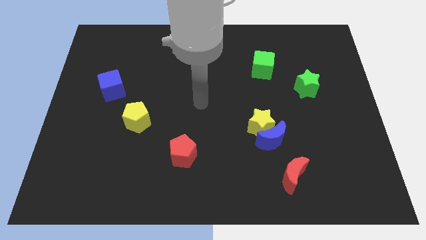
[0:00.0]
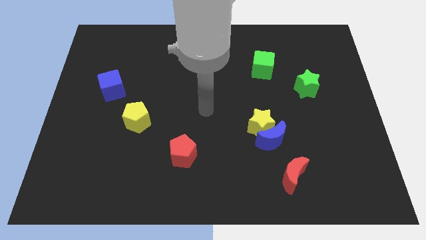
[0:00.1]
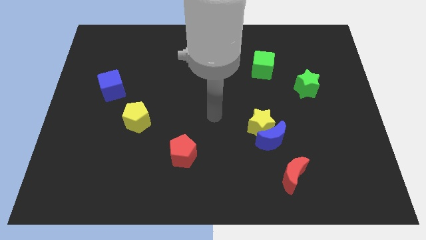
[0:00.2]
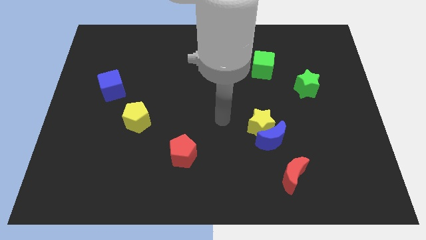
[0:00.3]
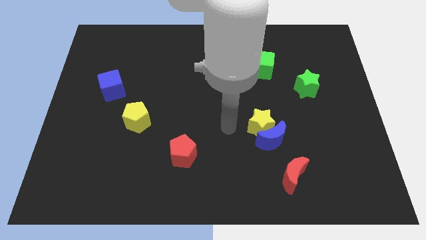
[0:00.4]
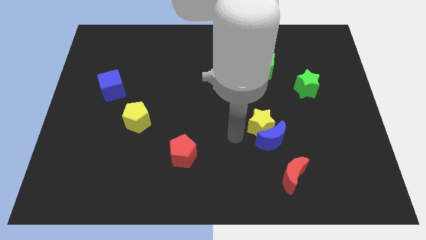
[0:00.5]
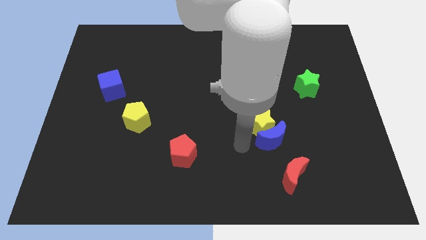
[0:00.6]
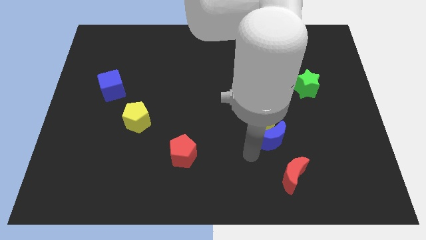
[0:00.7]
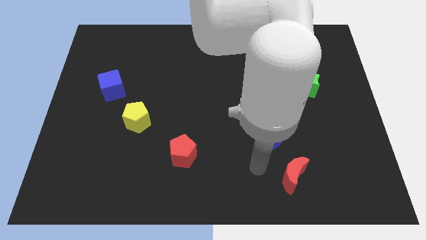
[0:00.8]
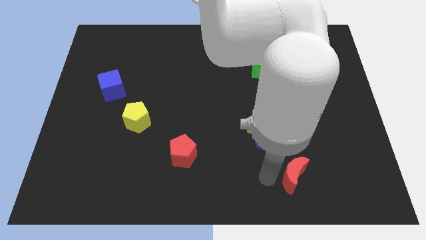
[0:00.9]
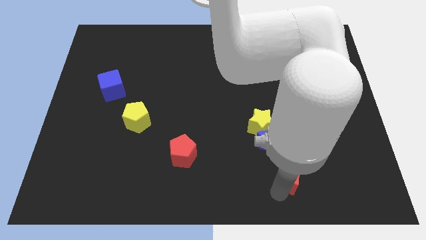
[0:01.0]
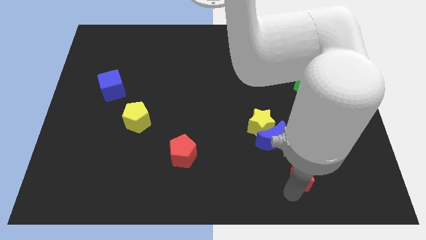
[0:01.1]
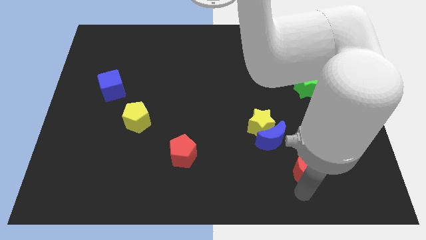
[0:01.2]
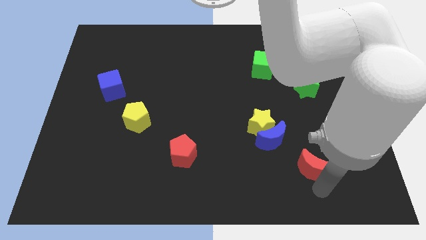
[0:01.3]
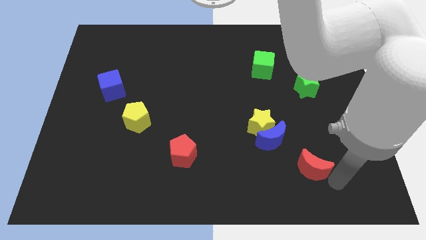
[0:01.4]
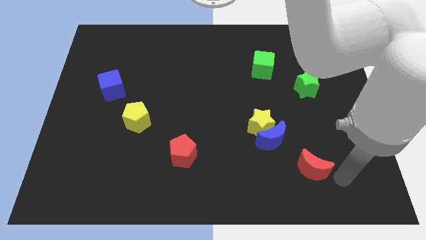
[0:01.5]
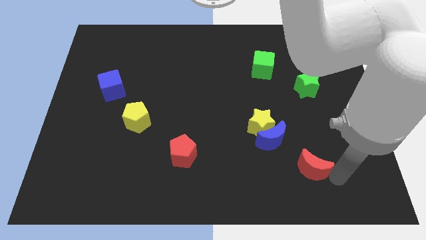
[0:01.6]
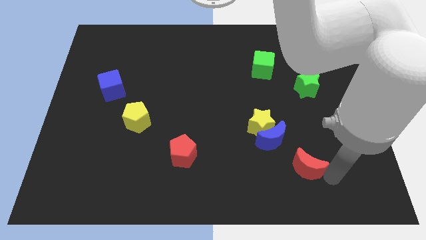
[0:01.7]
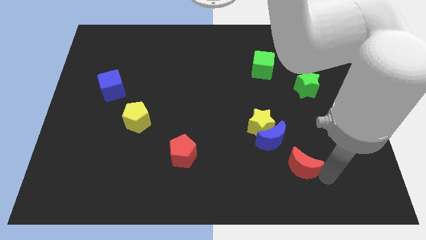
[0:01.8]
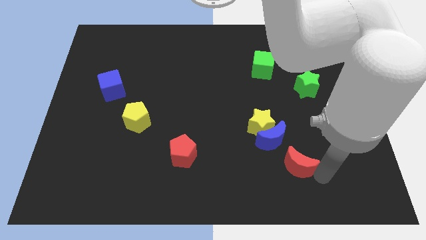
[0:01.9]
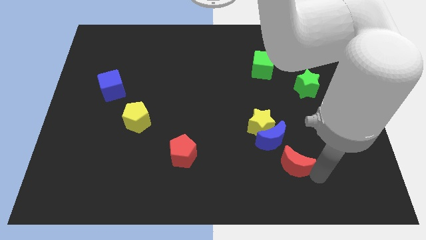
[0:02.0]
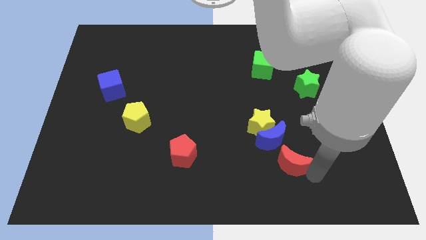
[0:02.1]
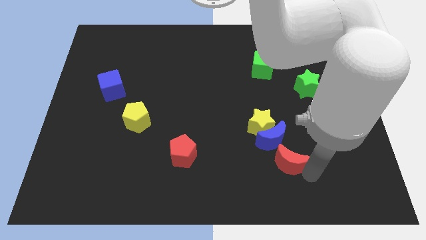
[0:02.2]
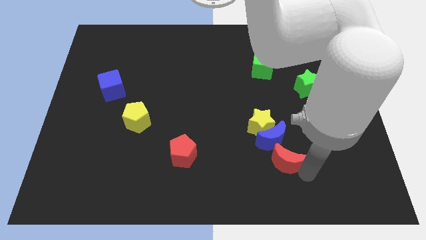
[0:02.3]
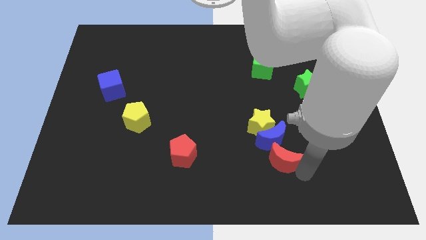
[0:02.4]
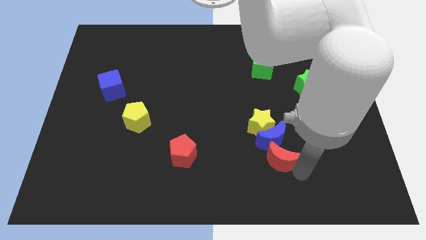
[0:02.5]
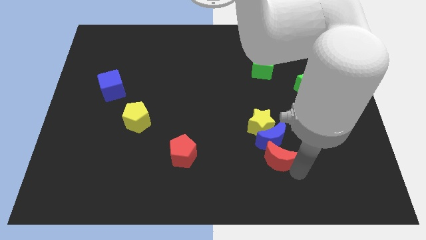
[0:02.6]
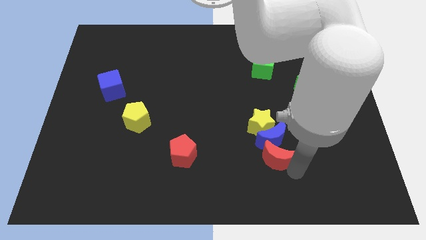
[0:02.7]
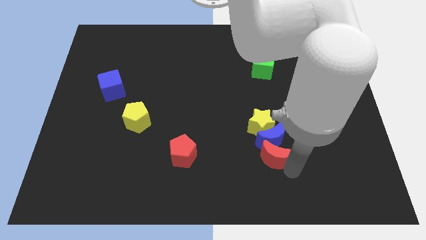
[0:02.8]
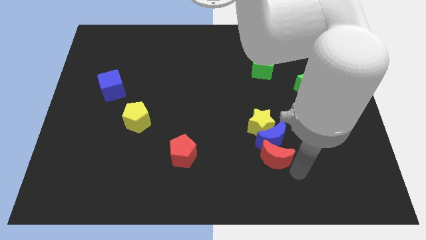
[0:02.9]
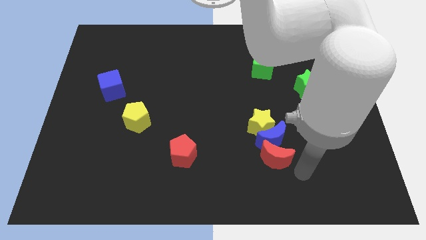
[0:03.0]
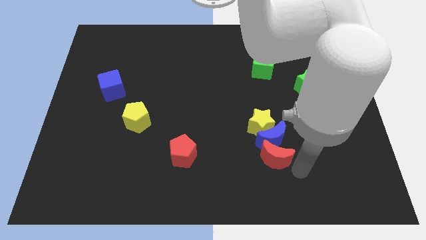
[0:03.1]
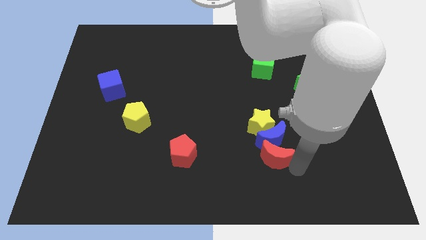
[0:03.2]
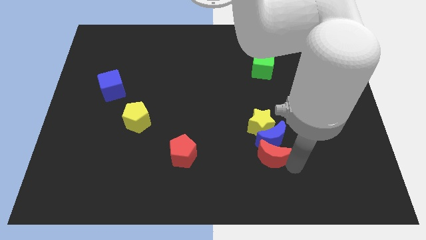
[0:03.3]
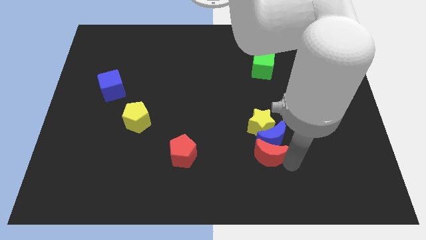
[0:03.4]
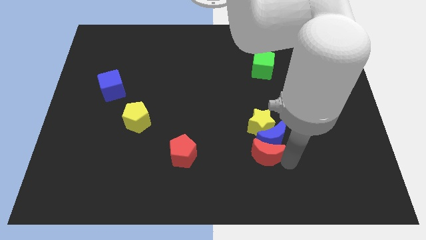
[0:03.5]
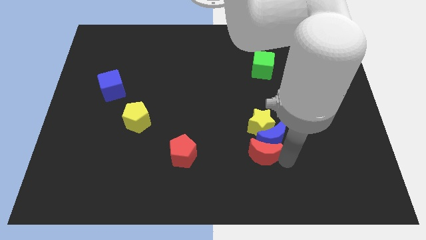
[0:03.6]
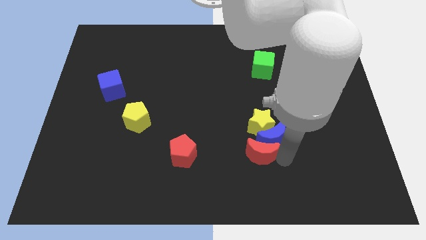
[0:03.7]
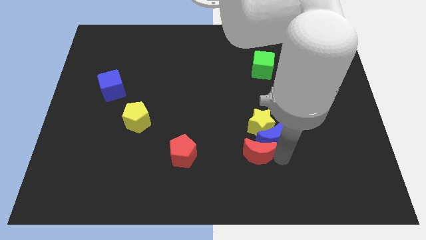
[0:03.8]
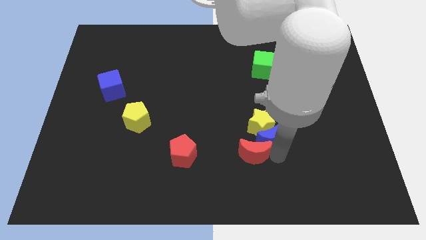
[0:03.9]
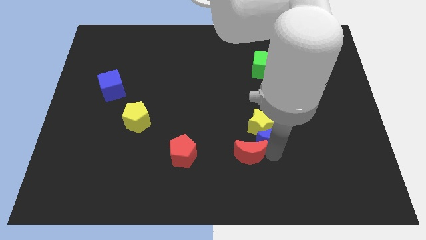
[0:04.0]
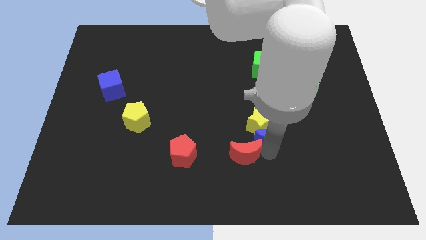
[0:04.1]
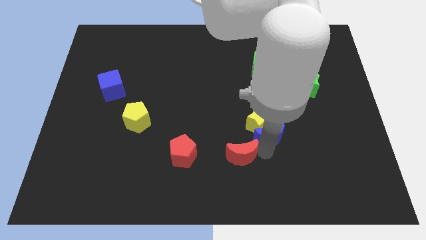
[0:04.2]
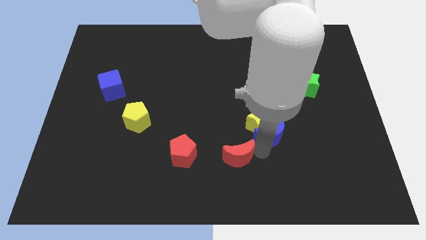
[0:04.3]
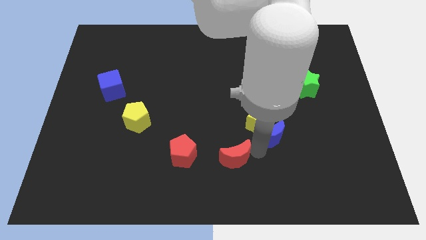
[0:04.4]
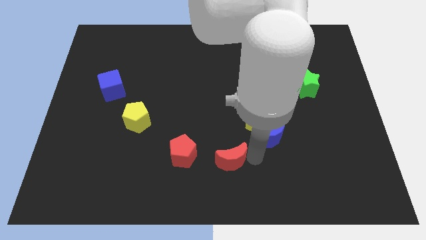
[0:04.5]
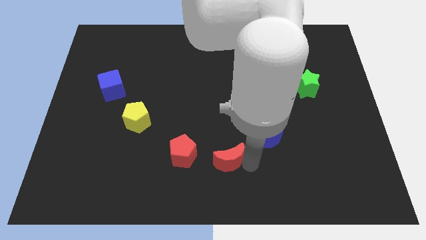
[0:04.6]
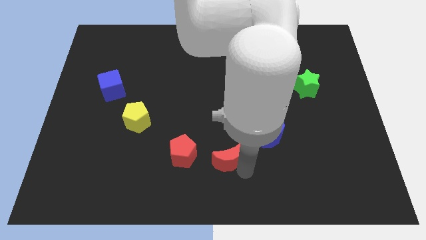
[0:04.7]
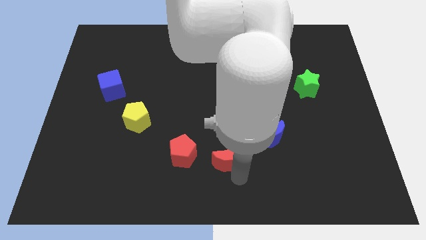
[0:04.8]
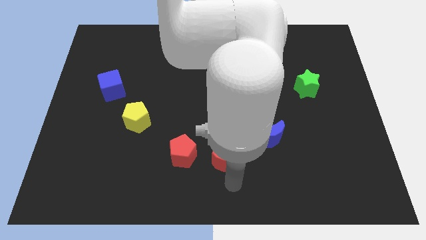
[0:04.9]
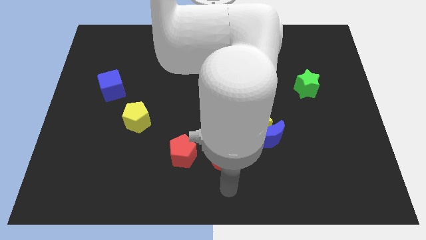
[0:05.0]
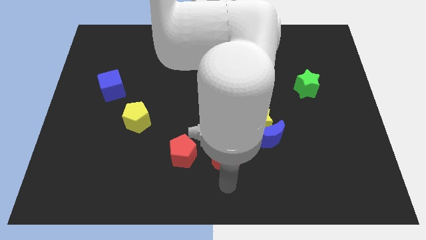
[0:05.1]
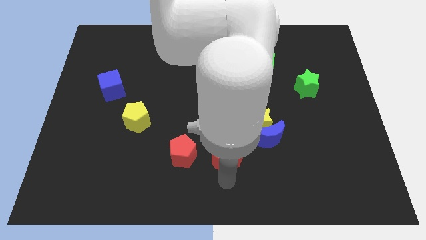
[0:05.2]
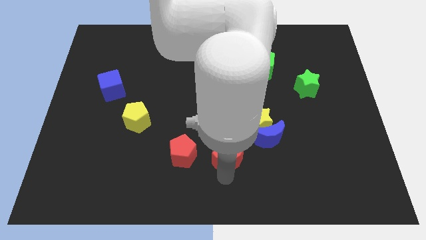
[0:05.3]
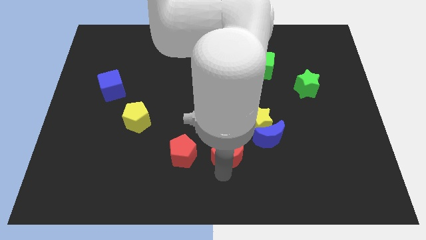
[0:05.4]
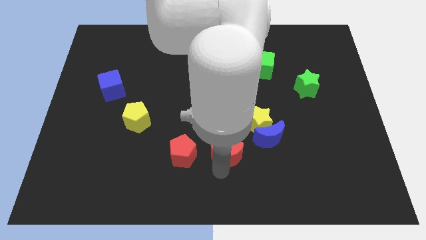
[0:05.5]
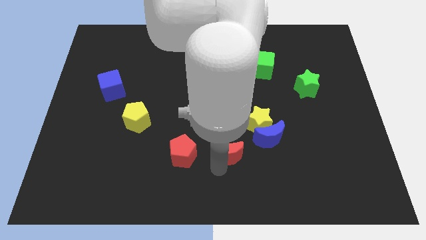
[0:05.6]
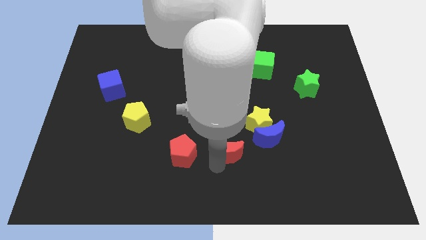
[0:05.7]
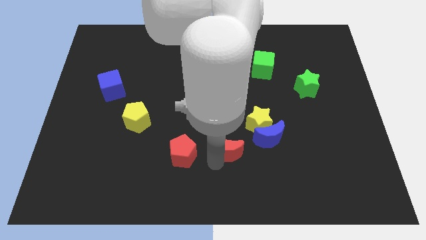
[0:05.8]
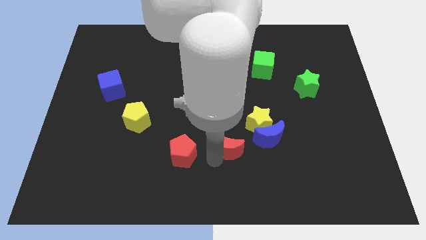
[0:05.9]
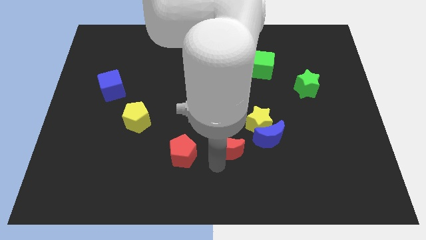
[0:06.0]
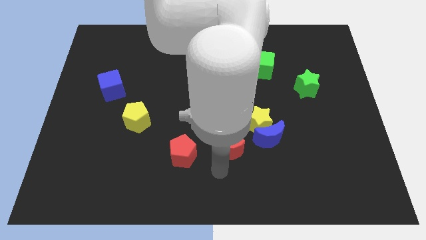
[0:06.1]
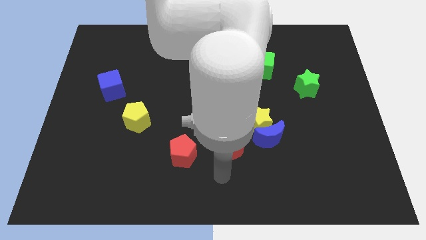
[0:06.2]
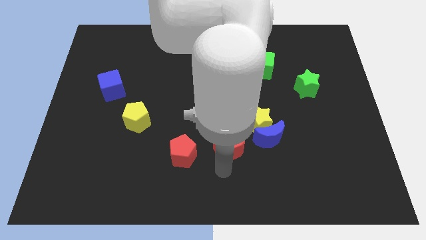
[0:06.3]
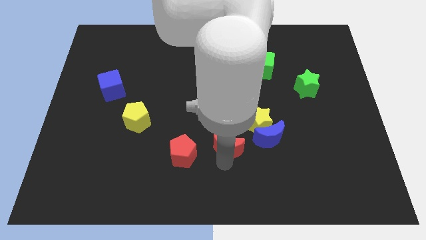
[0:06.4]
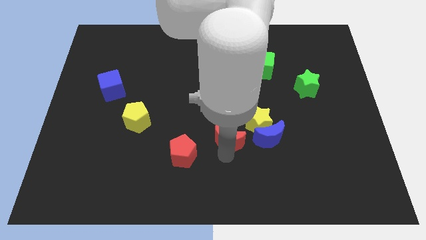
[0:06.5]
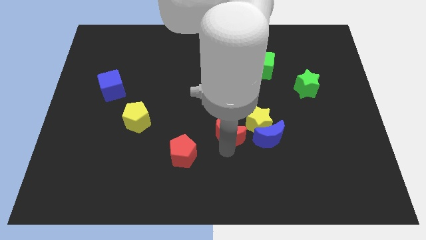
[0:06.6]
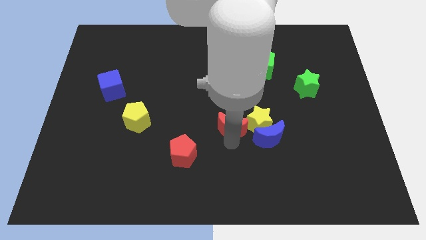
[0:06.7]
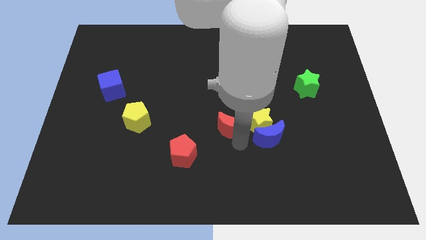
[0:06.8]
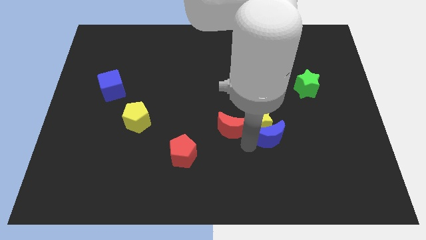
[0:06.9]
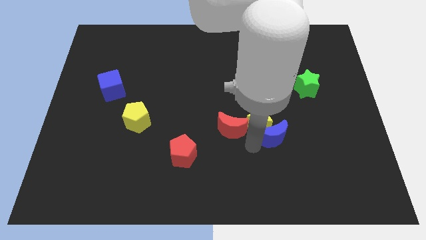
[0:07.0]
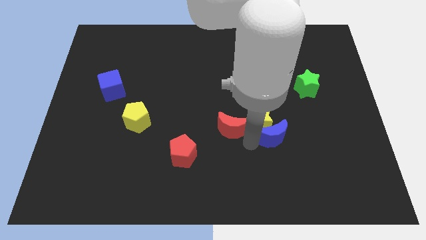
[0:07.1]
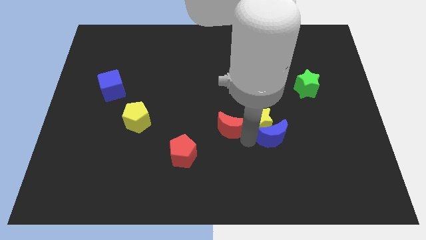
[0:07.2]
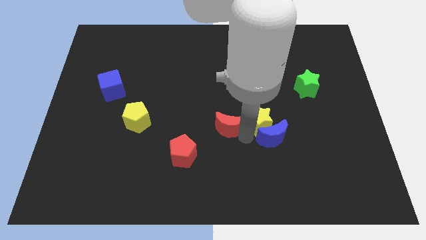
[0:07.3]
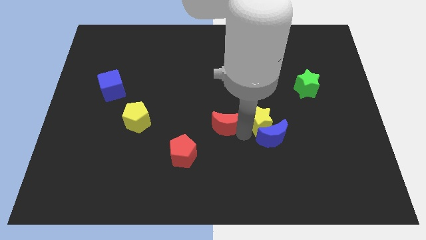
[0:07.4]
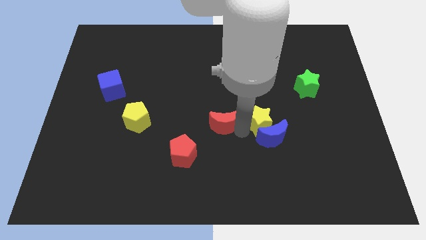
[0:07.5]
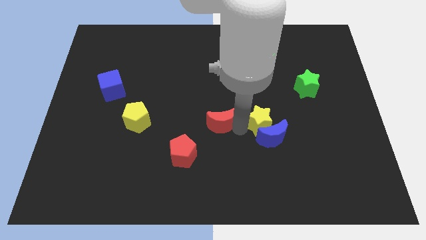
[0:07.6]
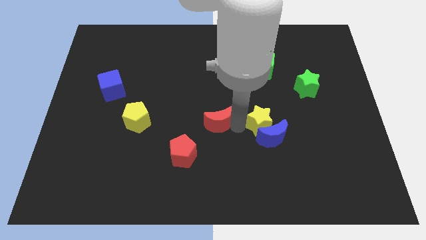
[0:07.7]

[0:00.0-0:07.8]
move the red moon upwards and to the left diagonally

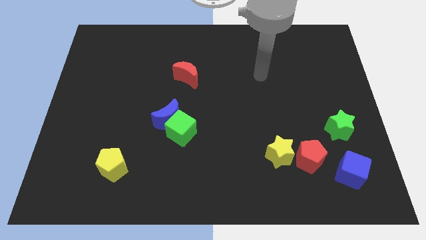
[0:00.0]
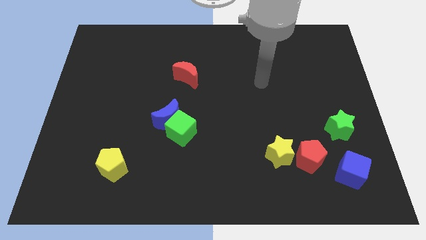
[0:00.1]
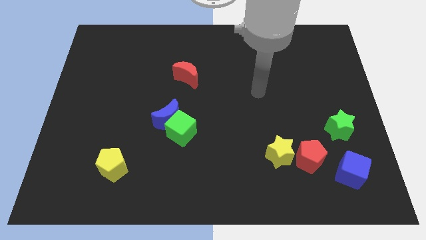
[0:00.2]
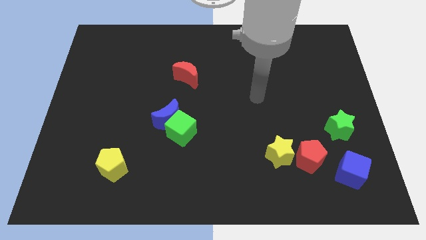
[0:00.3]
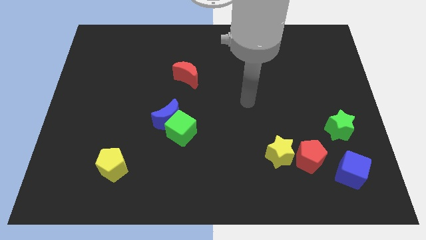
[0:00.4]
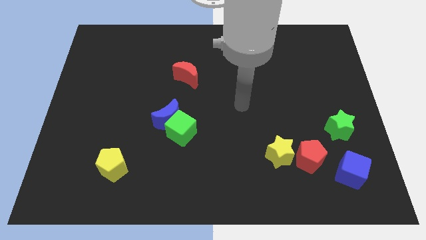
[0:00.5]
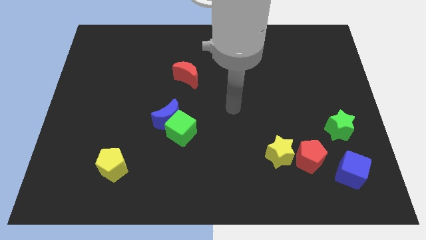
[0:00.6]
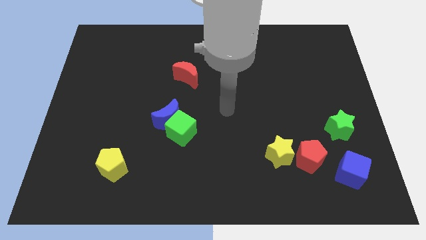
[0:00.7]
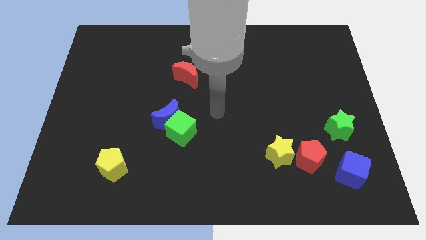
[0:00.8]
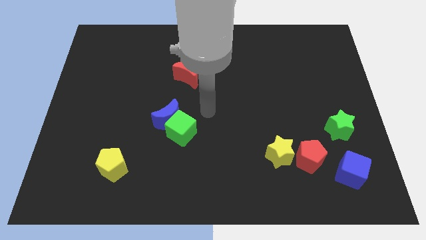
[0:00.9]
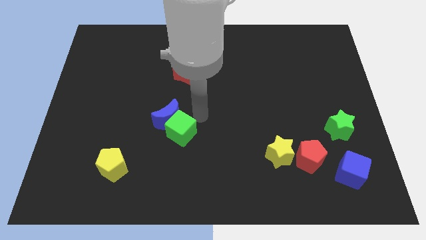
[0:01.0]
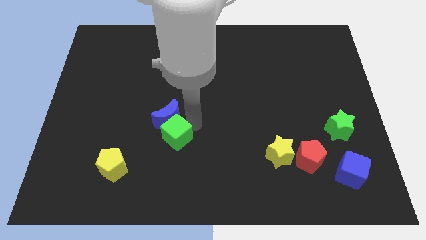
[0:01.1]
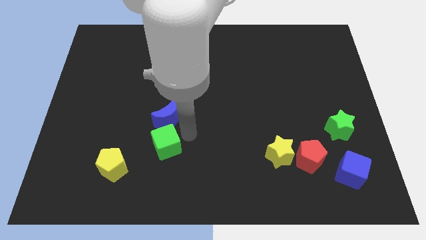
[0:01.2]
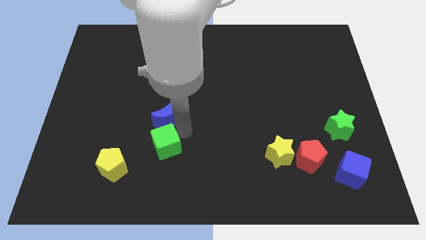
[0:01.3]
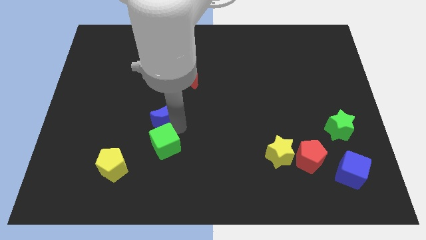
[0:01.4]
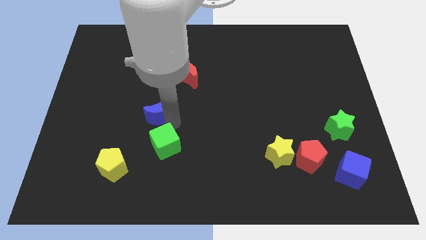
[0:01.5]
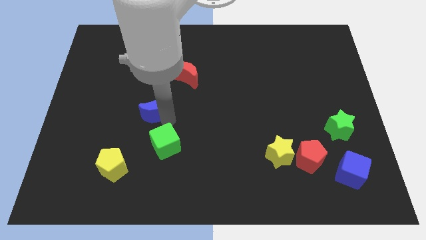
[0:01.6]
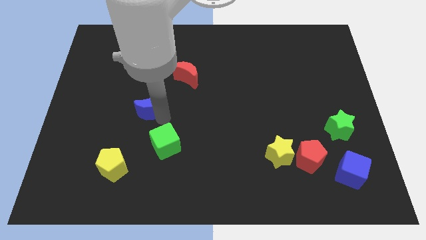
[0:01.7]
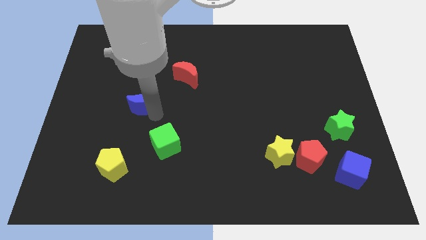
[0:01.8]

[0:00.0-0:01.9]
move the blue moon upwards and then left slightly
